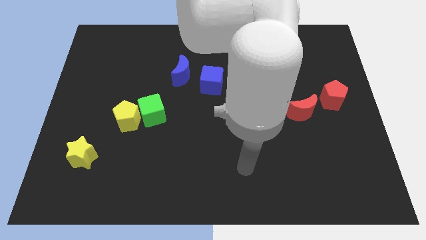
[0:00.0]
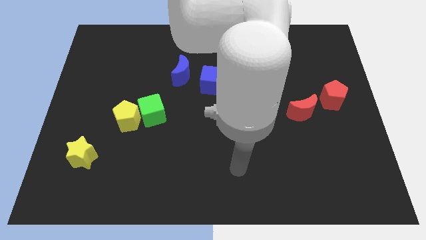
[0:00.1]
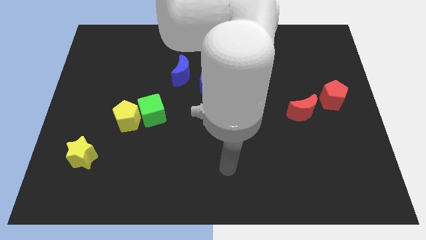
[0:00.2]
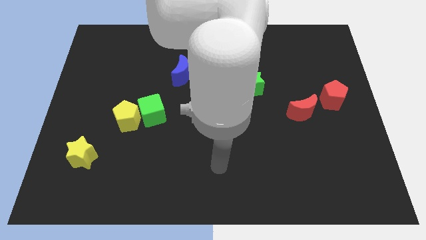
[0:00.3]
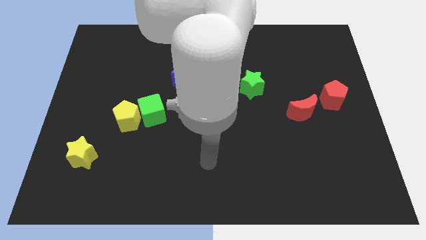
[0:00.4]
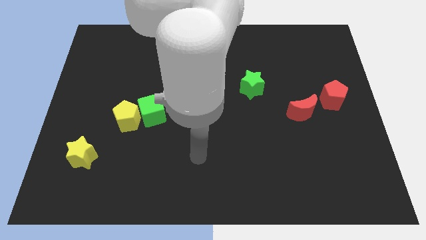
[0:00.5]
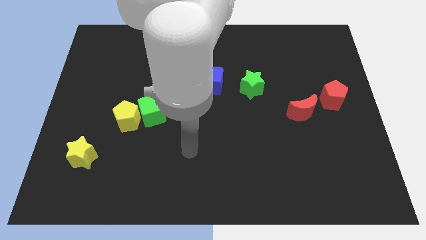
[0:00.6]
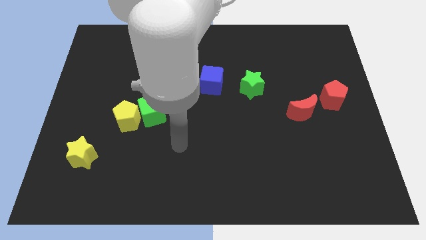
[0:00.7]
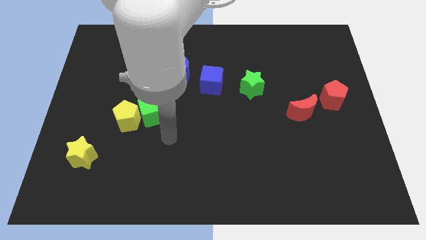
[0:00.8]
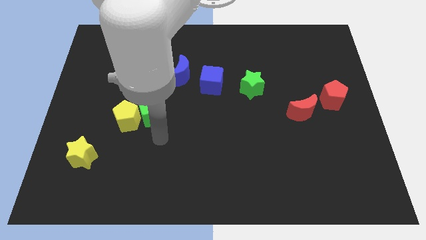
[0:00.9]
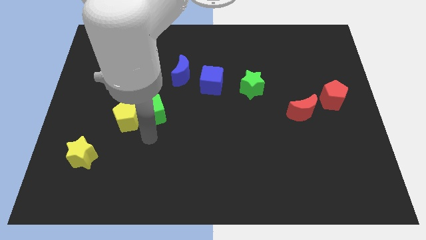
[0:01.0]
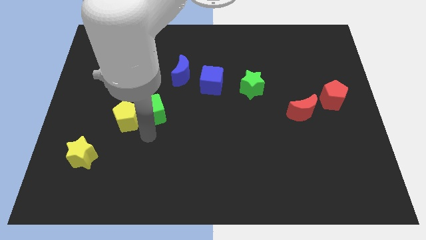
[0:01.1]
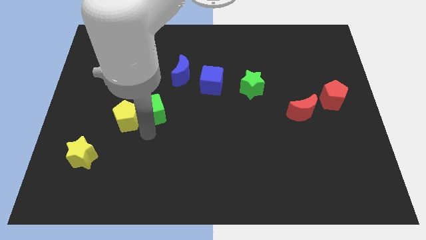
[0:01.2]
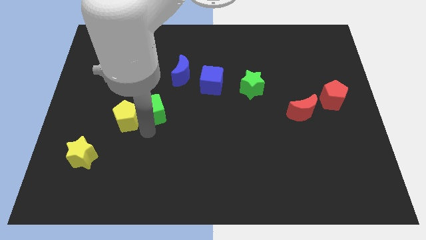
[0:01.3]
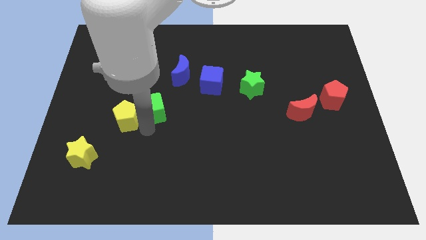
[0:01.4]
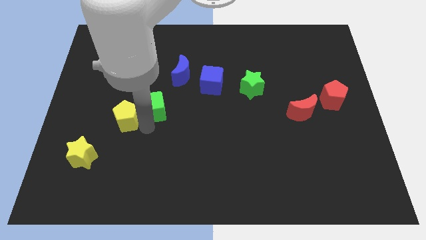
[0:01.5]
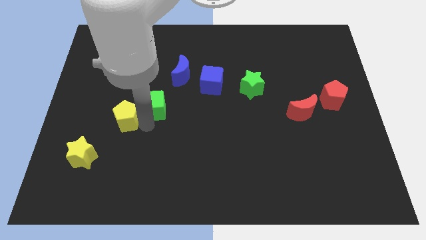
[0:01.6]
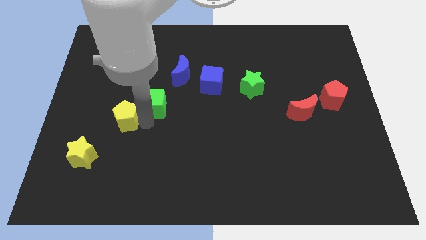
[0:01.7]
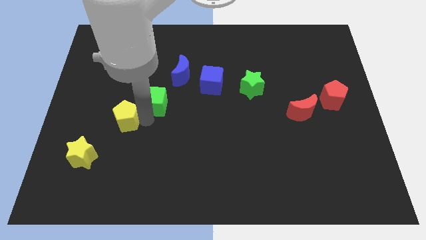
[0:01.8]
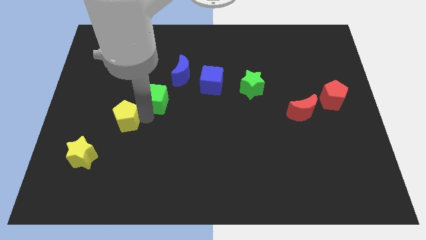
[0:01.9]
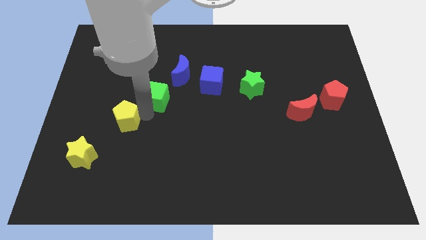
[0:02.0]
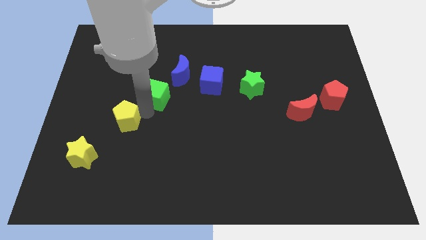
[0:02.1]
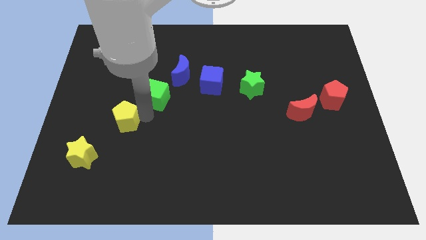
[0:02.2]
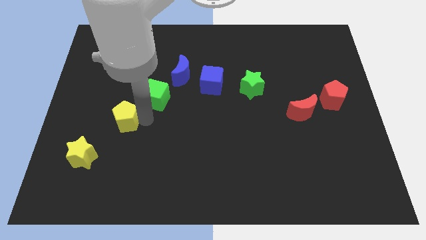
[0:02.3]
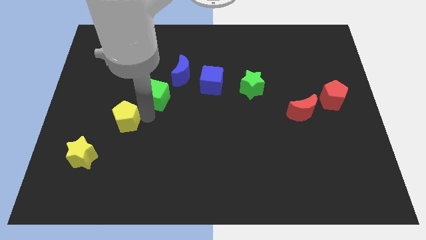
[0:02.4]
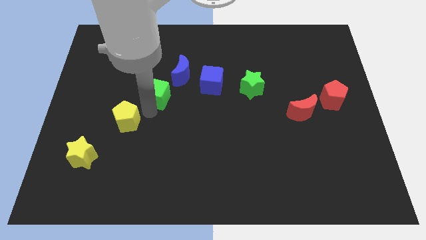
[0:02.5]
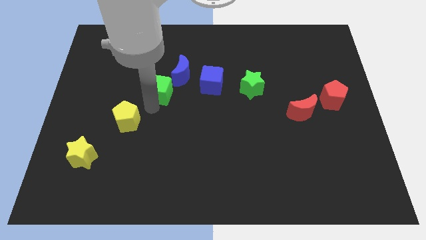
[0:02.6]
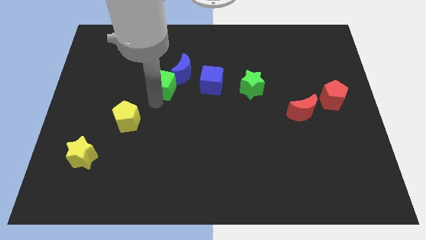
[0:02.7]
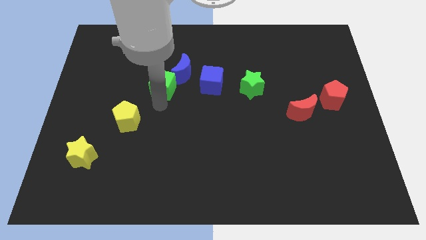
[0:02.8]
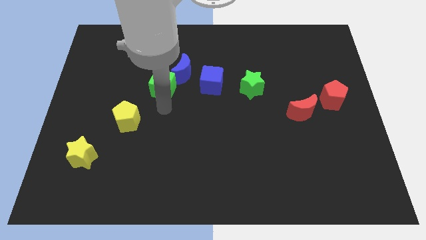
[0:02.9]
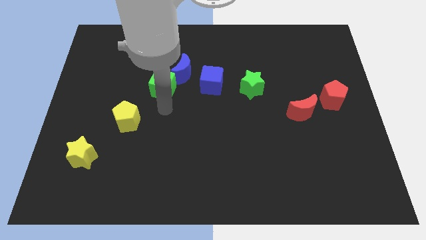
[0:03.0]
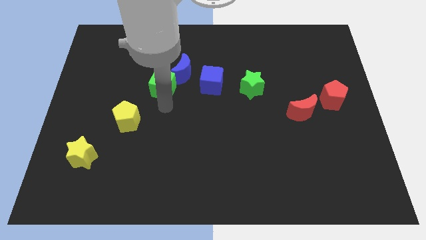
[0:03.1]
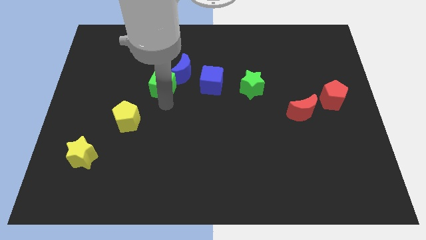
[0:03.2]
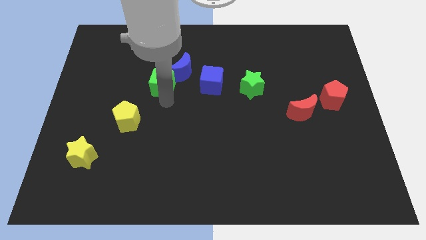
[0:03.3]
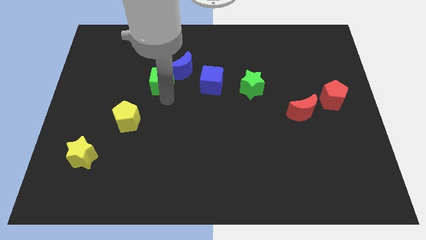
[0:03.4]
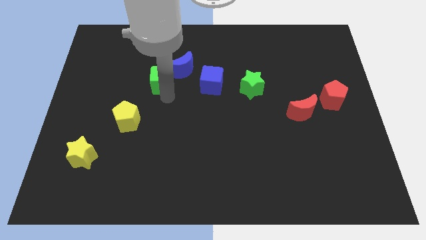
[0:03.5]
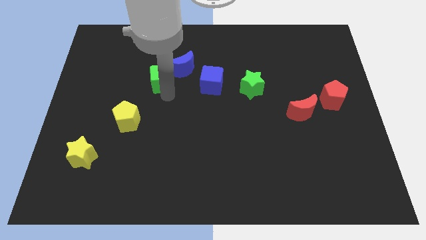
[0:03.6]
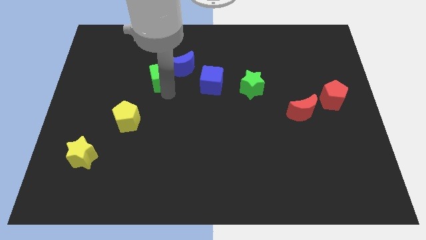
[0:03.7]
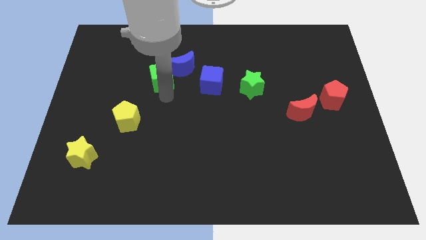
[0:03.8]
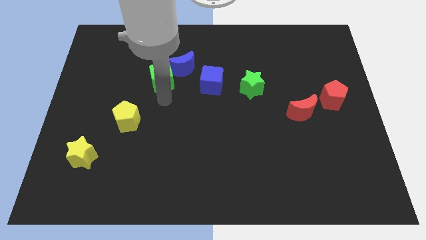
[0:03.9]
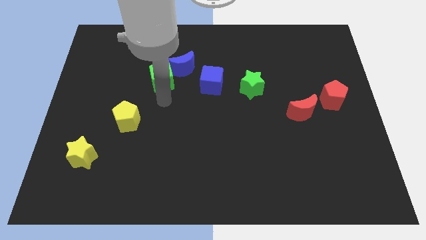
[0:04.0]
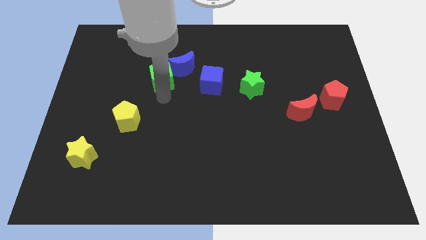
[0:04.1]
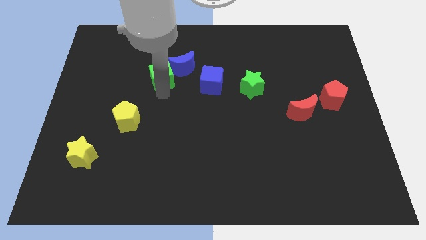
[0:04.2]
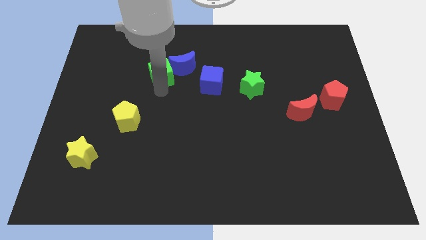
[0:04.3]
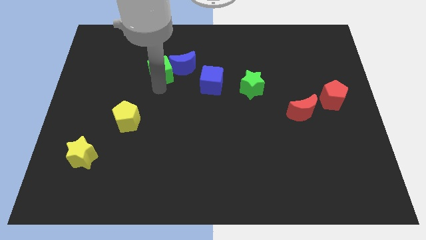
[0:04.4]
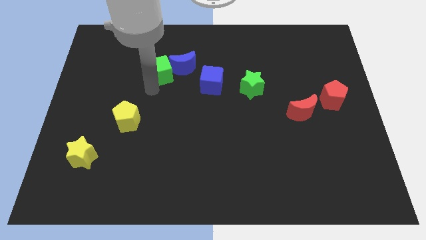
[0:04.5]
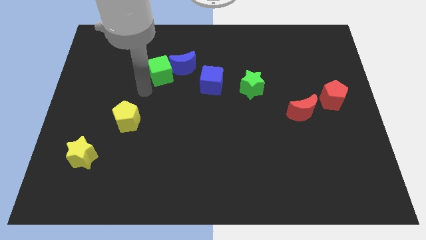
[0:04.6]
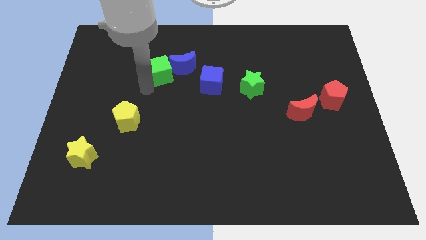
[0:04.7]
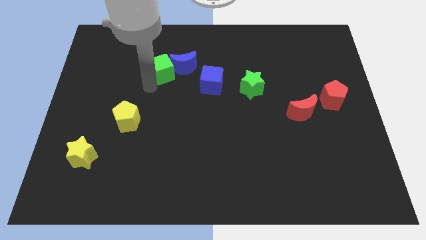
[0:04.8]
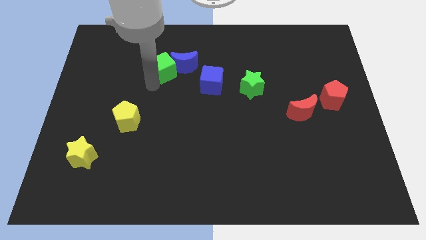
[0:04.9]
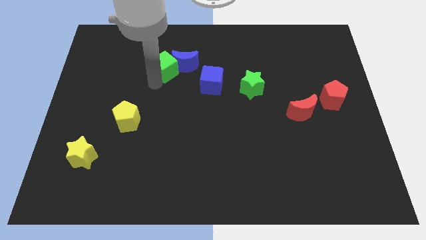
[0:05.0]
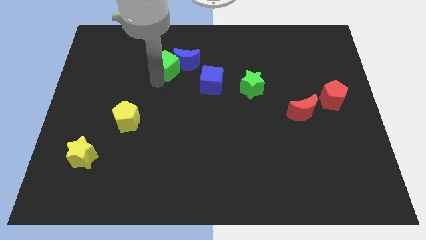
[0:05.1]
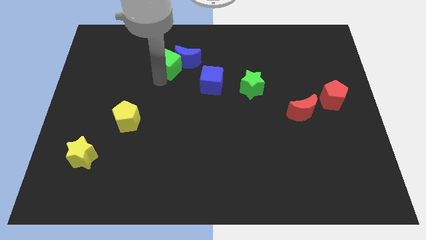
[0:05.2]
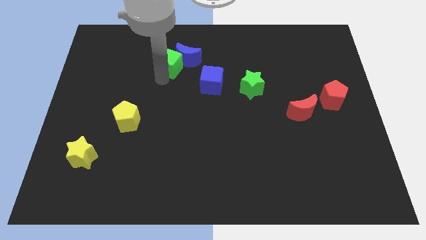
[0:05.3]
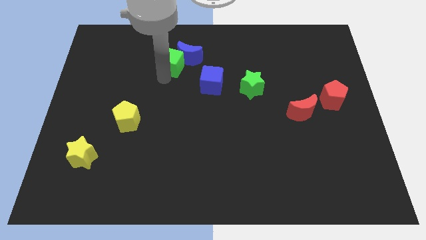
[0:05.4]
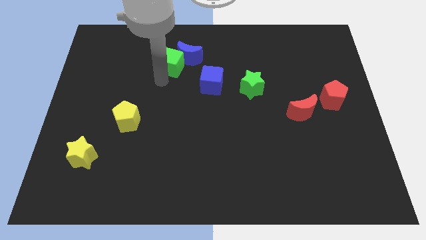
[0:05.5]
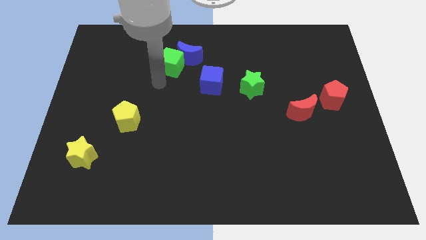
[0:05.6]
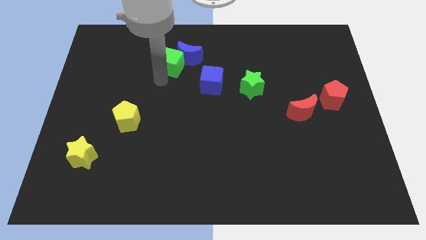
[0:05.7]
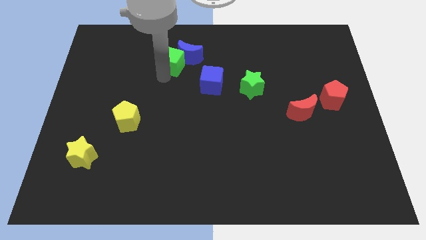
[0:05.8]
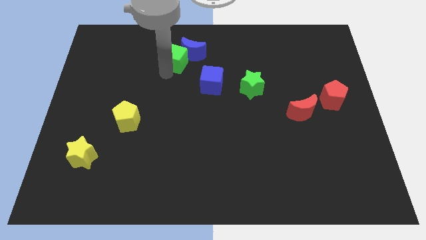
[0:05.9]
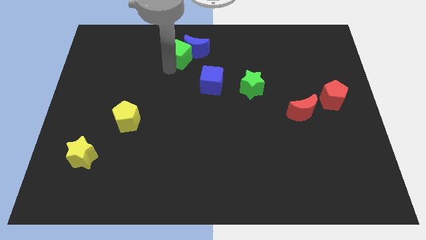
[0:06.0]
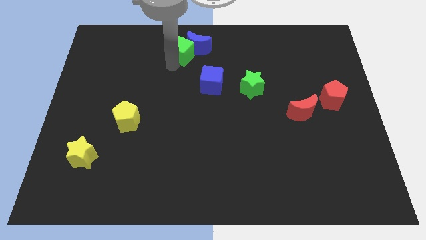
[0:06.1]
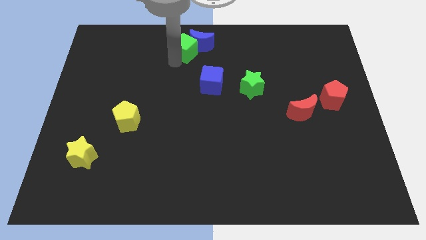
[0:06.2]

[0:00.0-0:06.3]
move the green cube to the towards your base
